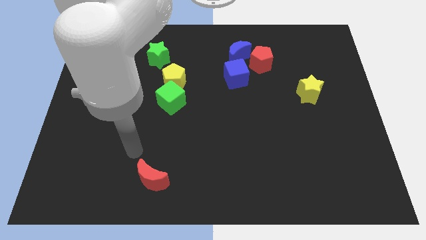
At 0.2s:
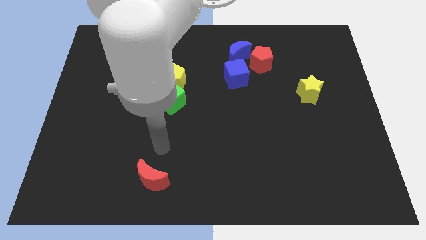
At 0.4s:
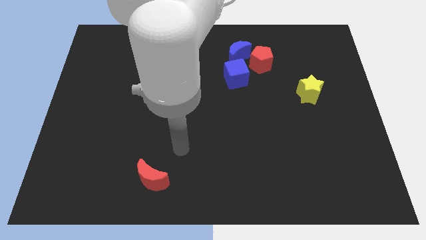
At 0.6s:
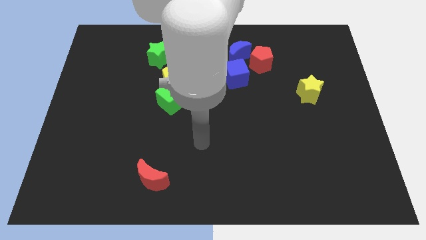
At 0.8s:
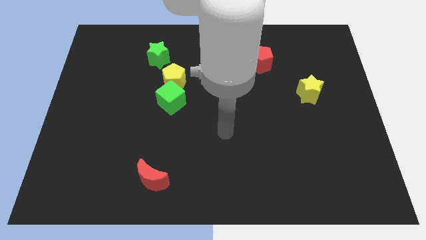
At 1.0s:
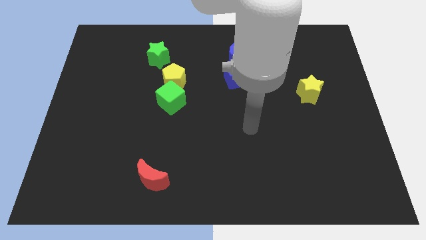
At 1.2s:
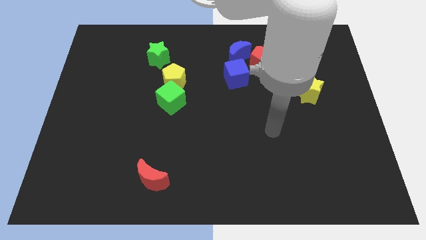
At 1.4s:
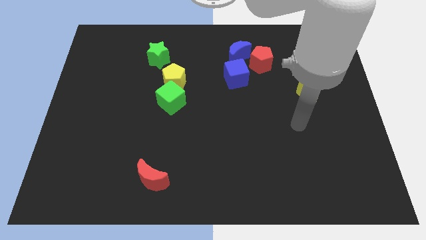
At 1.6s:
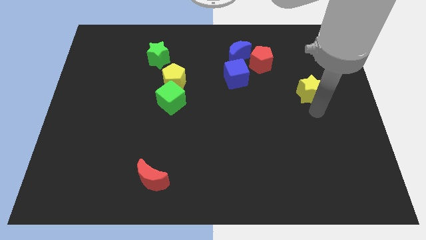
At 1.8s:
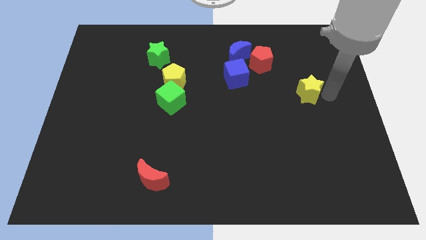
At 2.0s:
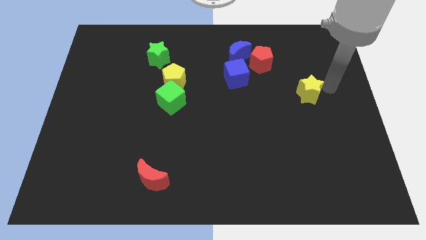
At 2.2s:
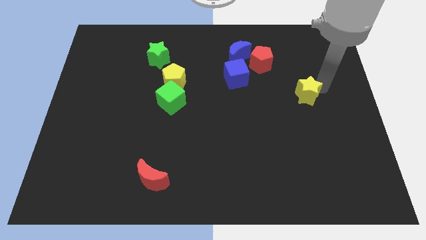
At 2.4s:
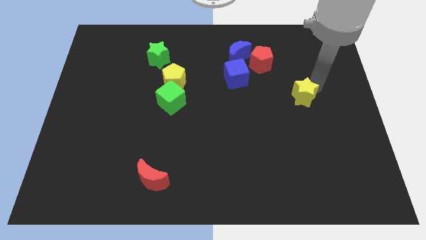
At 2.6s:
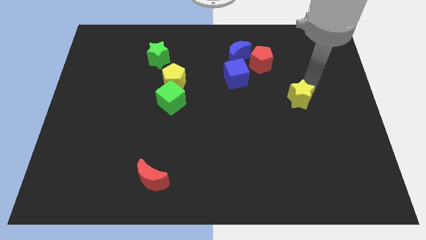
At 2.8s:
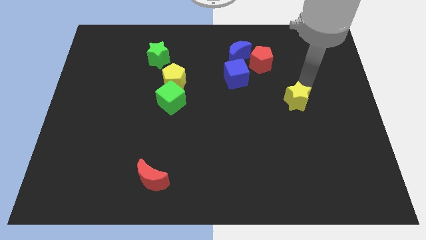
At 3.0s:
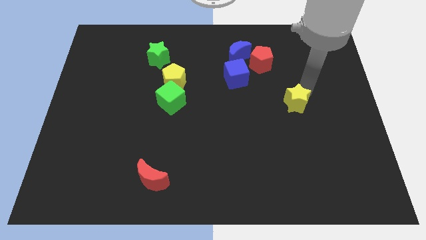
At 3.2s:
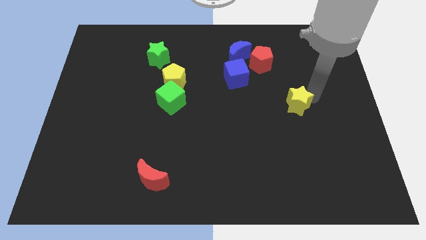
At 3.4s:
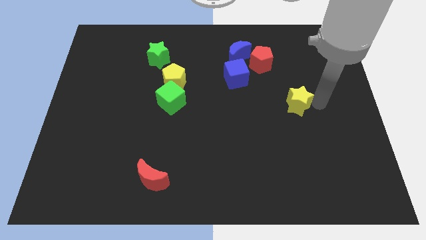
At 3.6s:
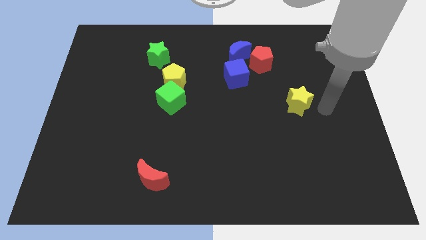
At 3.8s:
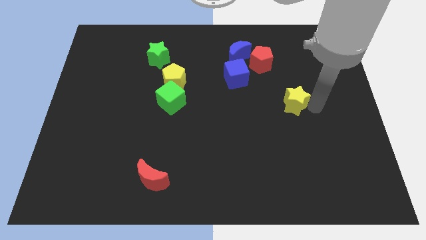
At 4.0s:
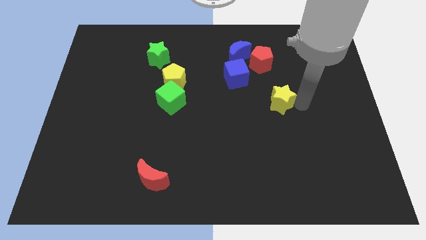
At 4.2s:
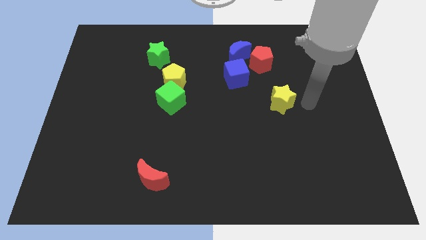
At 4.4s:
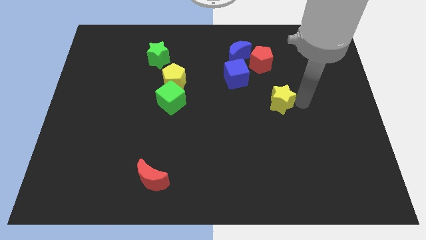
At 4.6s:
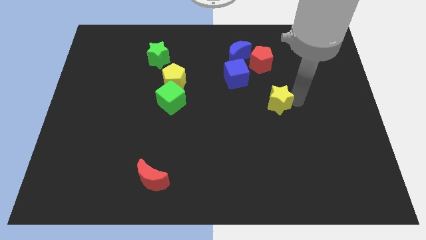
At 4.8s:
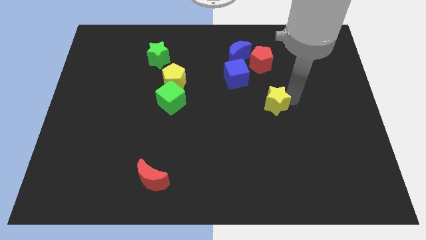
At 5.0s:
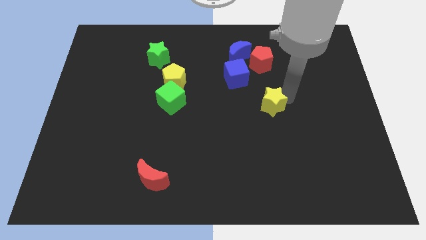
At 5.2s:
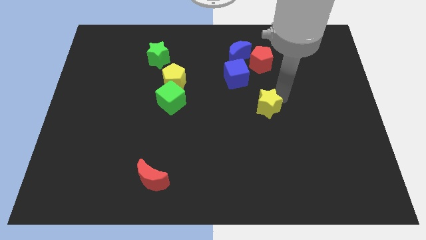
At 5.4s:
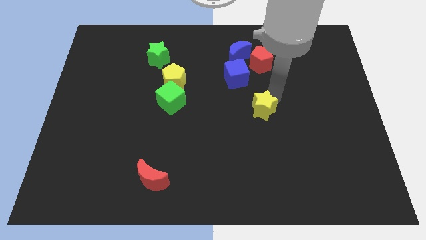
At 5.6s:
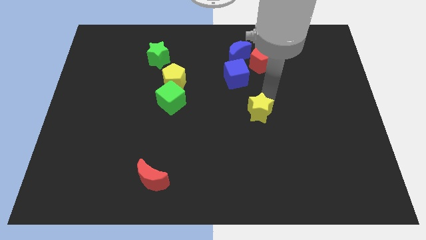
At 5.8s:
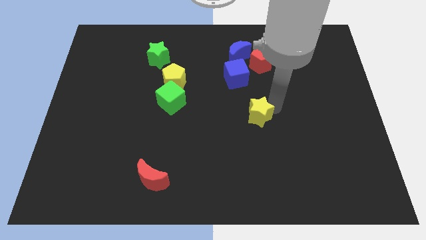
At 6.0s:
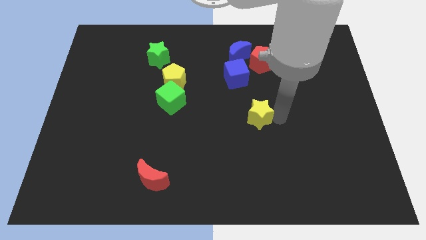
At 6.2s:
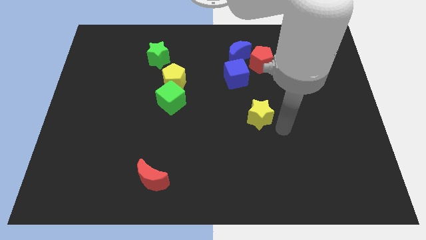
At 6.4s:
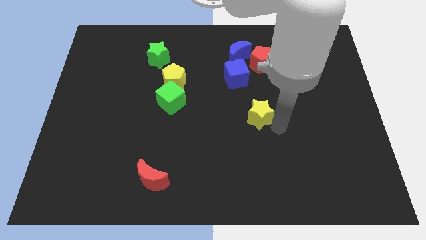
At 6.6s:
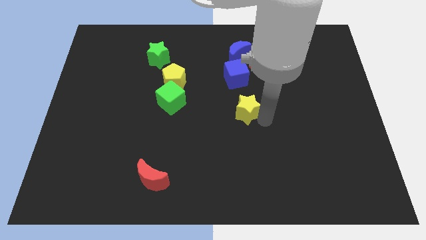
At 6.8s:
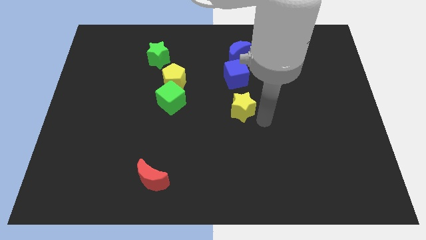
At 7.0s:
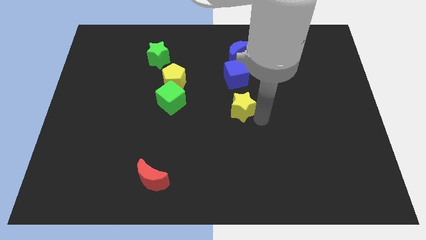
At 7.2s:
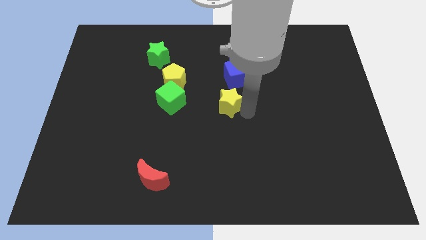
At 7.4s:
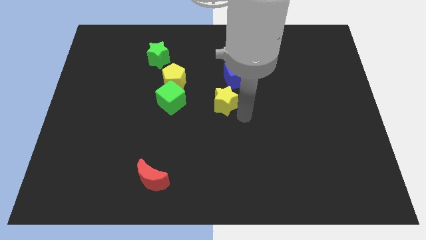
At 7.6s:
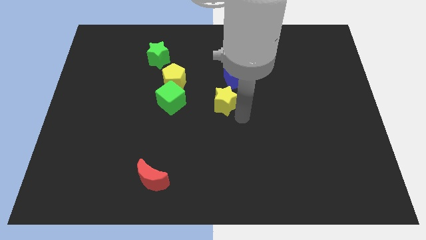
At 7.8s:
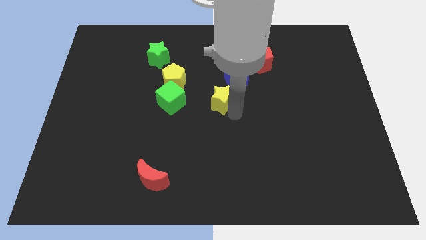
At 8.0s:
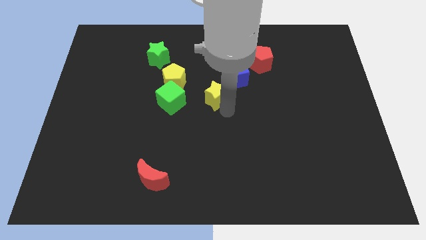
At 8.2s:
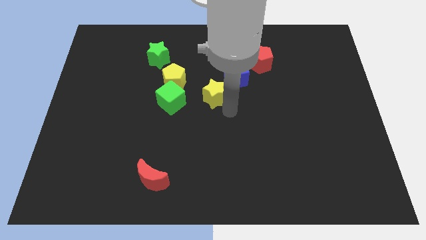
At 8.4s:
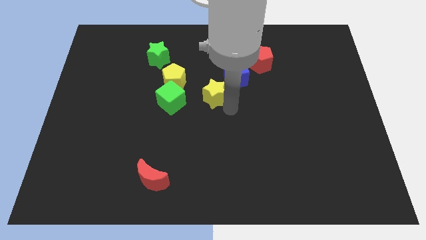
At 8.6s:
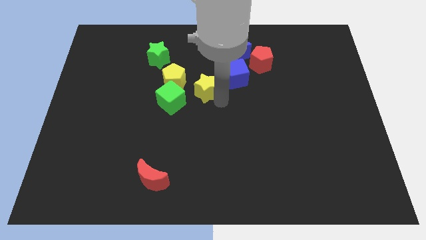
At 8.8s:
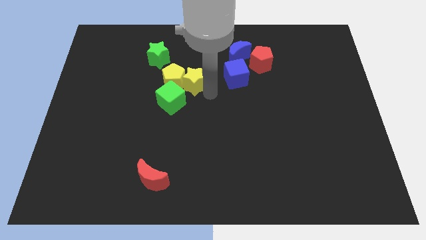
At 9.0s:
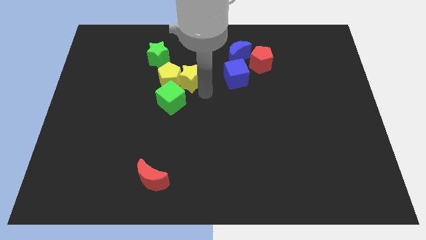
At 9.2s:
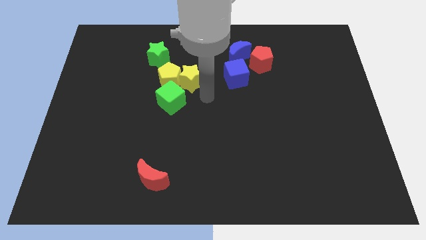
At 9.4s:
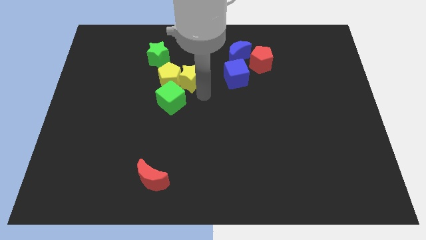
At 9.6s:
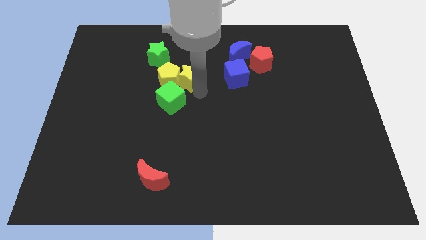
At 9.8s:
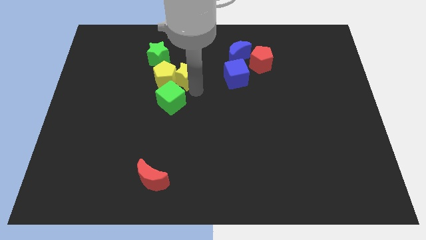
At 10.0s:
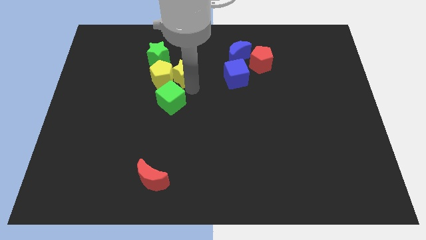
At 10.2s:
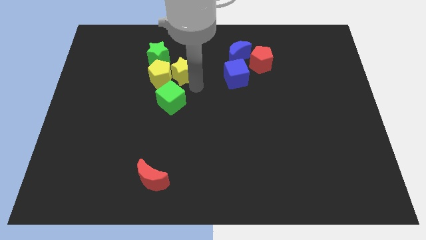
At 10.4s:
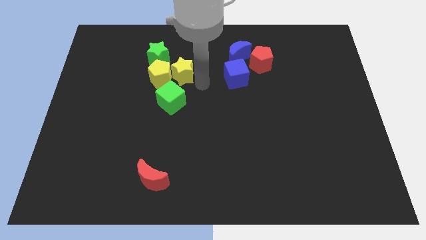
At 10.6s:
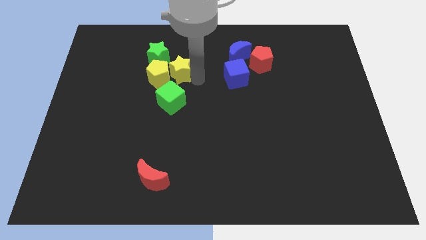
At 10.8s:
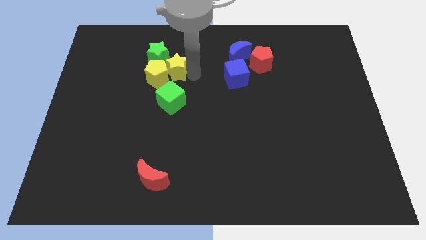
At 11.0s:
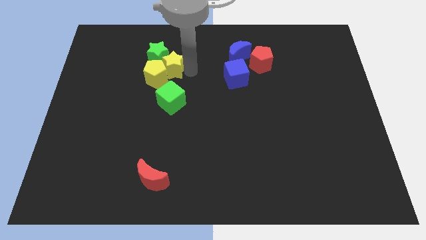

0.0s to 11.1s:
slide the yellow star to the green star

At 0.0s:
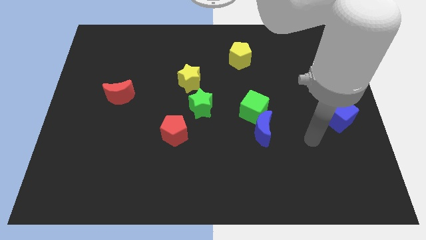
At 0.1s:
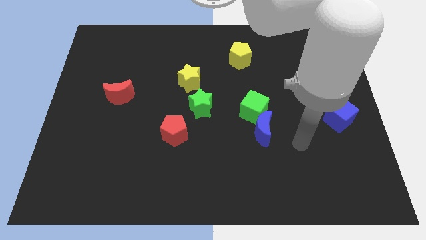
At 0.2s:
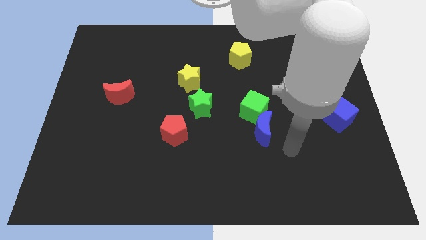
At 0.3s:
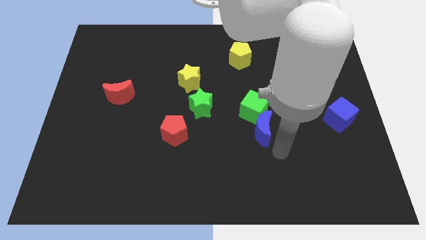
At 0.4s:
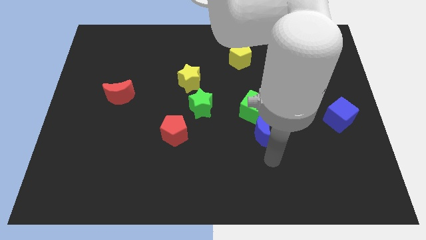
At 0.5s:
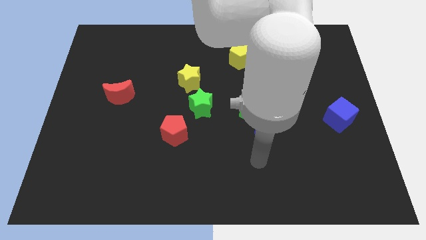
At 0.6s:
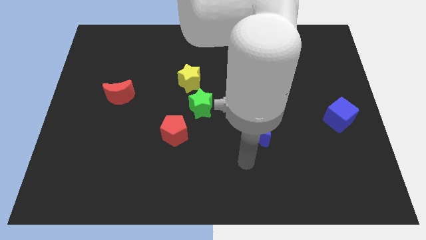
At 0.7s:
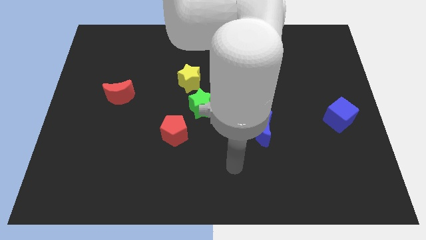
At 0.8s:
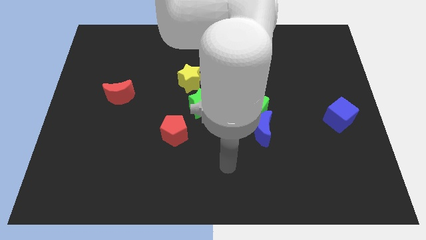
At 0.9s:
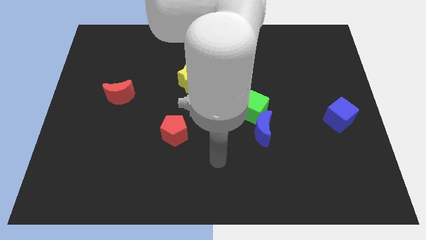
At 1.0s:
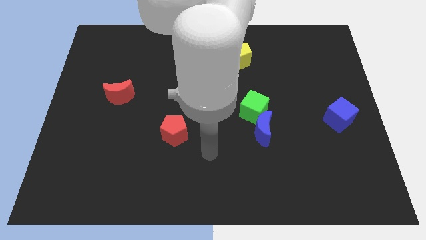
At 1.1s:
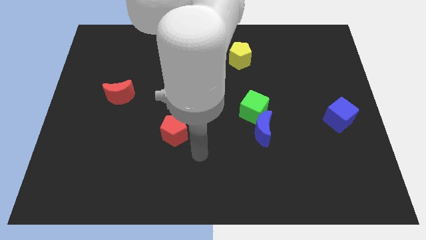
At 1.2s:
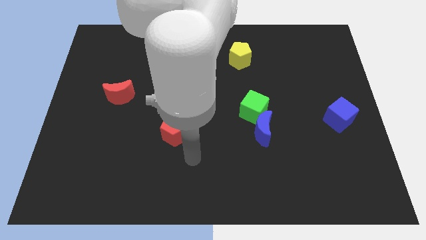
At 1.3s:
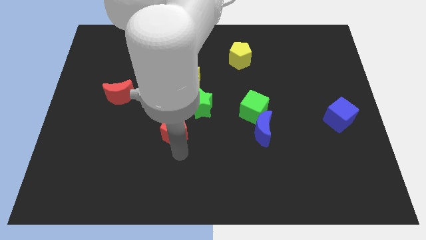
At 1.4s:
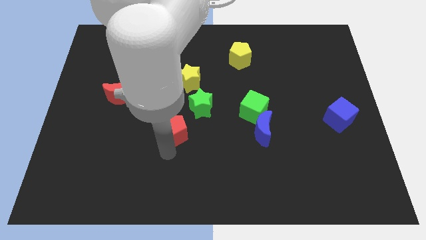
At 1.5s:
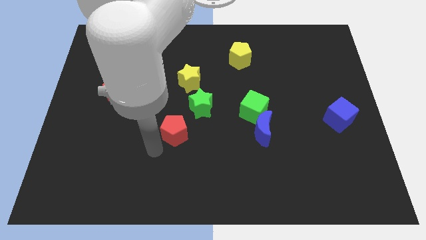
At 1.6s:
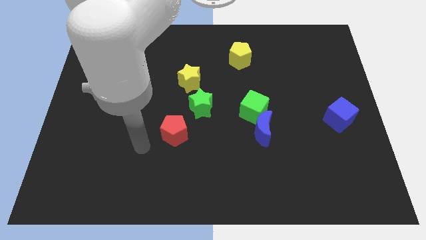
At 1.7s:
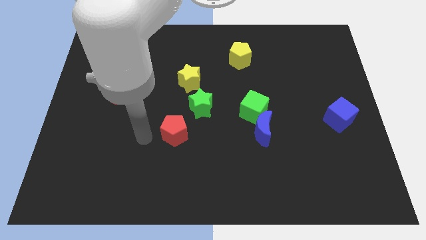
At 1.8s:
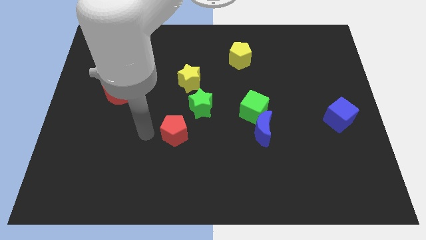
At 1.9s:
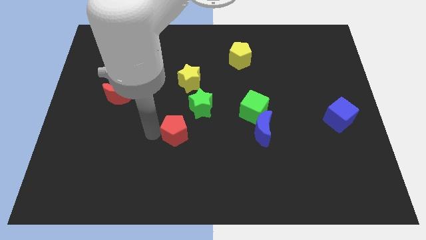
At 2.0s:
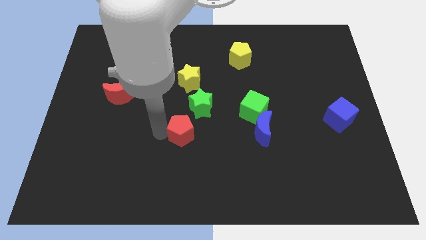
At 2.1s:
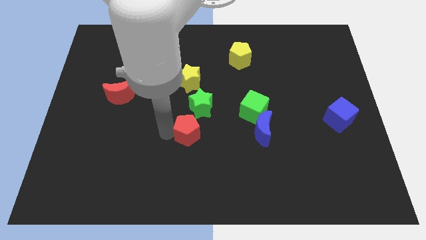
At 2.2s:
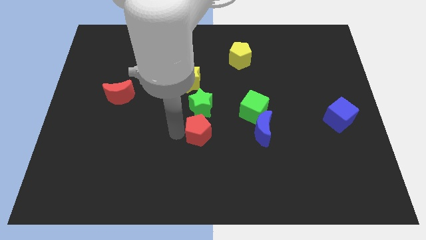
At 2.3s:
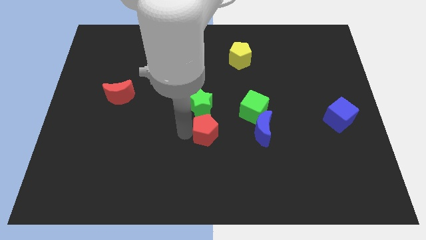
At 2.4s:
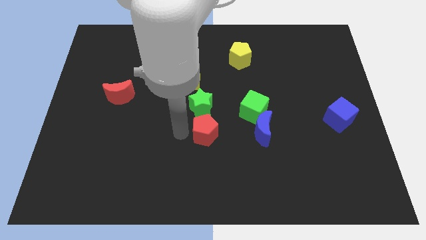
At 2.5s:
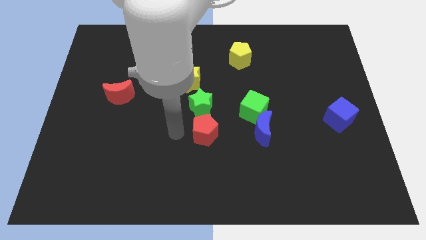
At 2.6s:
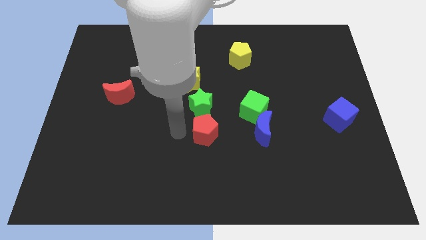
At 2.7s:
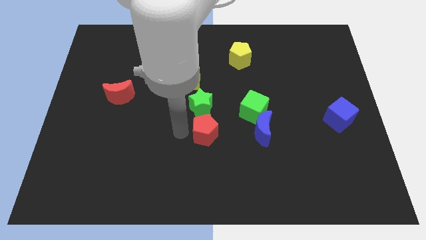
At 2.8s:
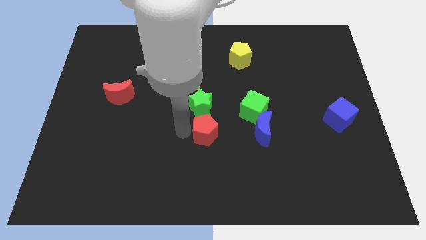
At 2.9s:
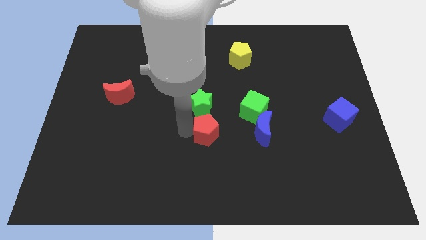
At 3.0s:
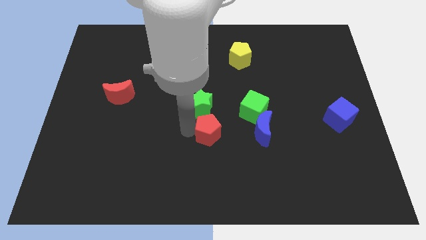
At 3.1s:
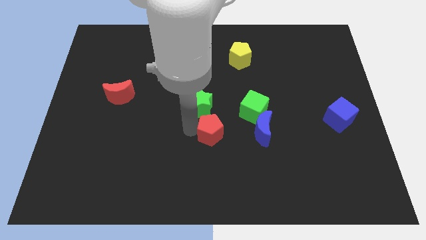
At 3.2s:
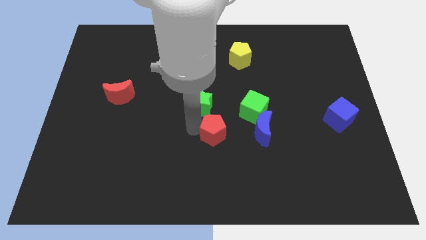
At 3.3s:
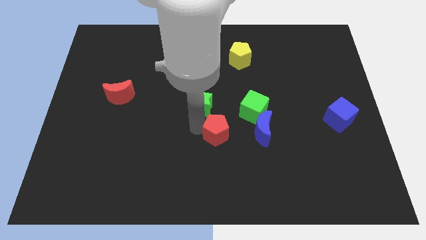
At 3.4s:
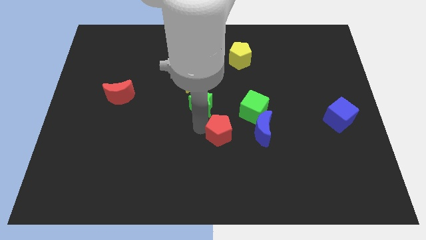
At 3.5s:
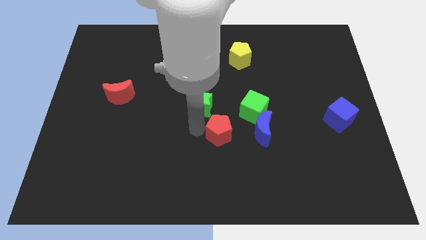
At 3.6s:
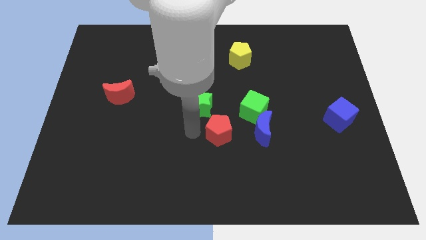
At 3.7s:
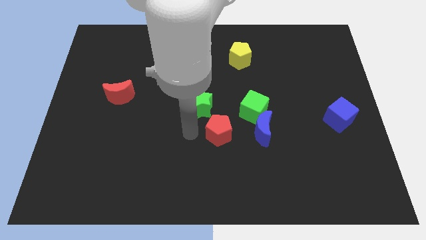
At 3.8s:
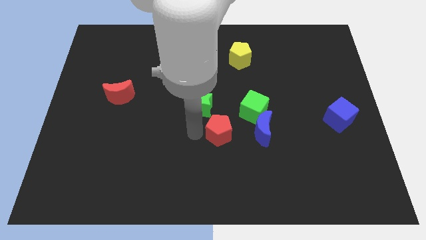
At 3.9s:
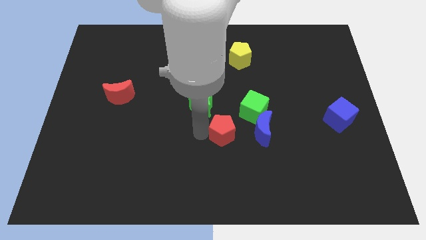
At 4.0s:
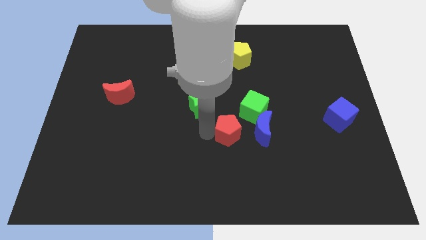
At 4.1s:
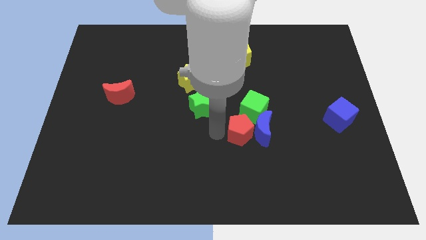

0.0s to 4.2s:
put the red pentagon to the blue moon
